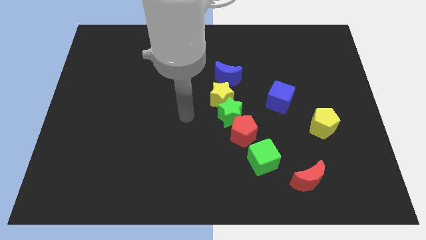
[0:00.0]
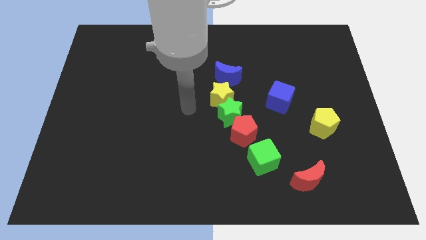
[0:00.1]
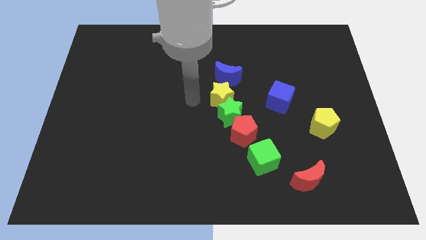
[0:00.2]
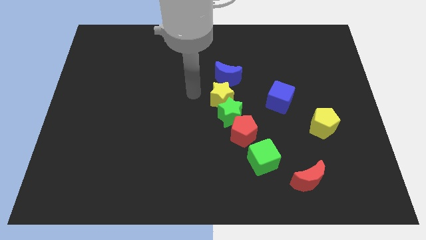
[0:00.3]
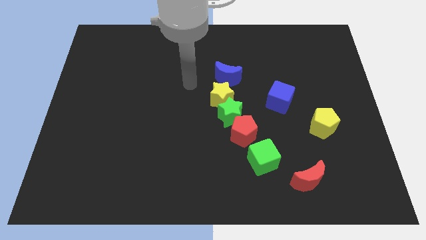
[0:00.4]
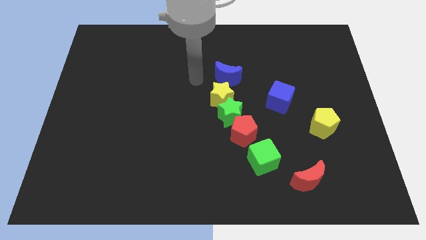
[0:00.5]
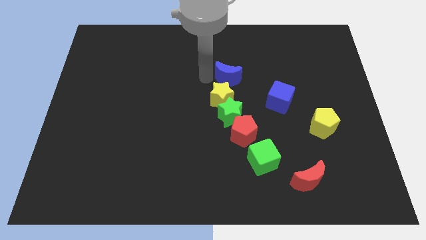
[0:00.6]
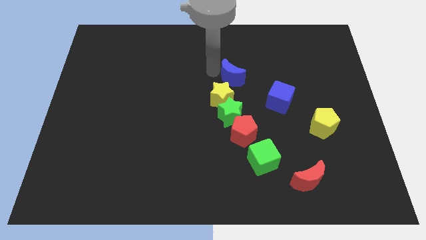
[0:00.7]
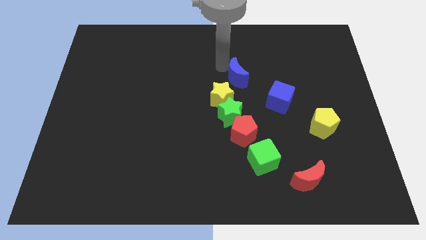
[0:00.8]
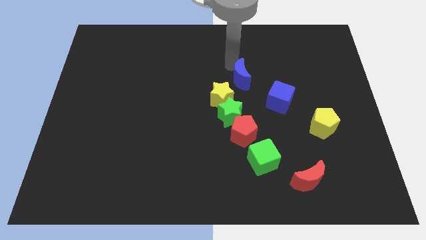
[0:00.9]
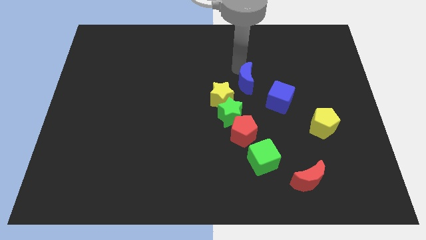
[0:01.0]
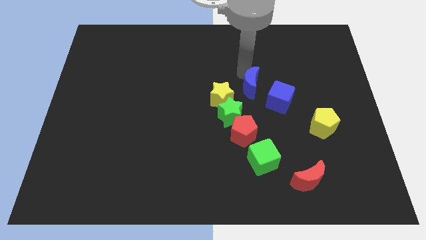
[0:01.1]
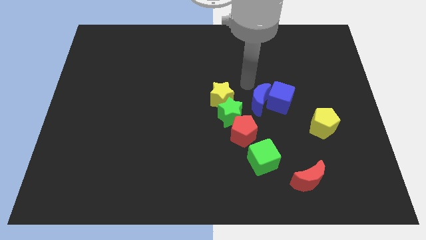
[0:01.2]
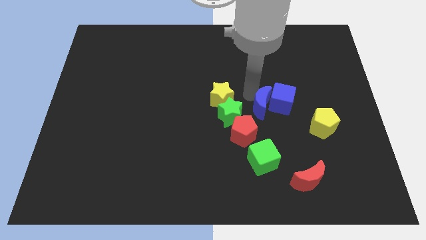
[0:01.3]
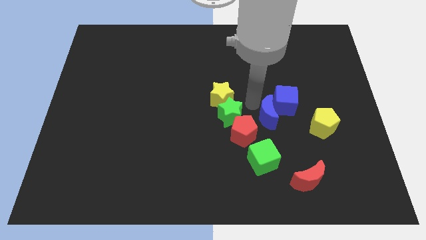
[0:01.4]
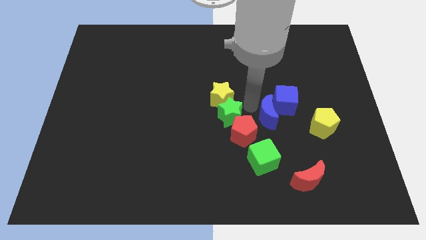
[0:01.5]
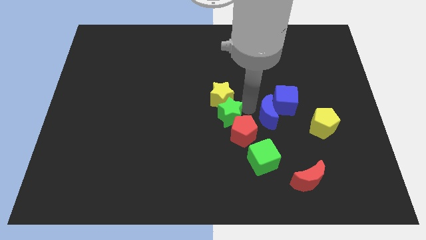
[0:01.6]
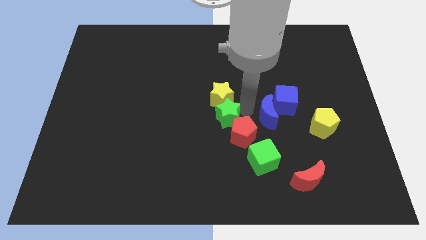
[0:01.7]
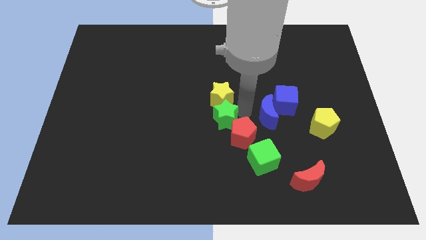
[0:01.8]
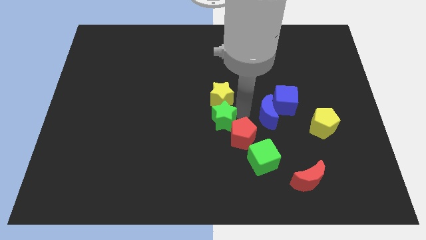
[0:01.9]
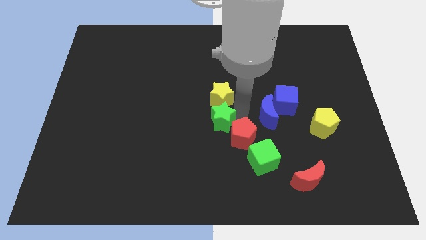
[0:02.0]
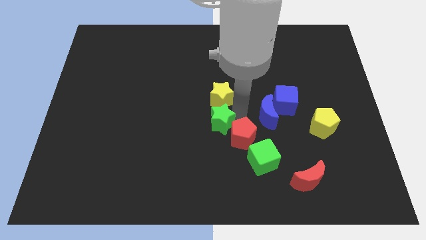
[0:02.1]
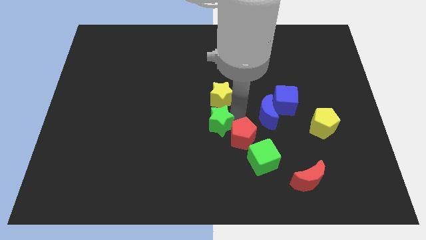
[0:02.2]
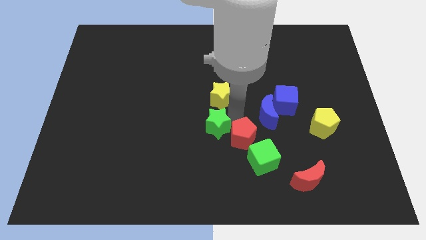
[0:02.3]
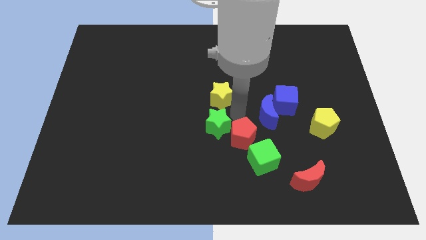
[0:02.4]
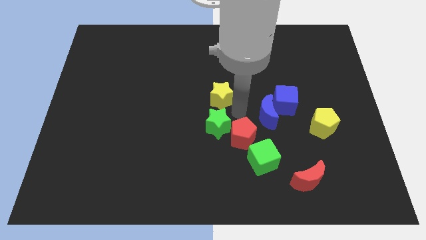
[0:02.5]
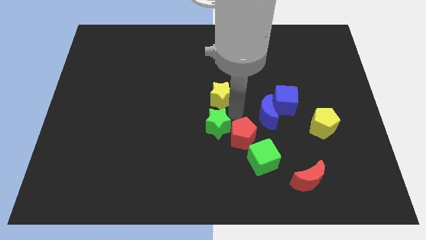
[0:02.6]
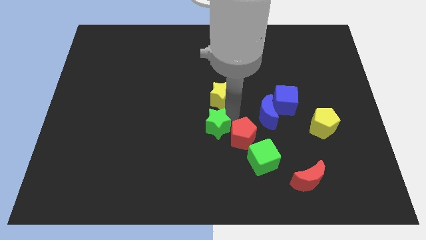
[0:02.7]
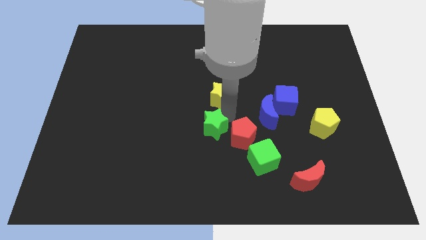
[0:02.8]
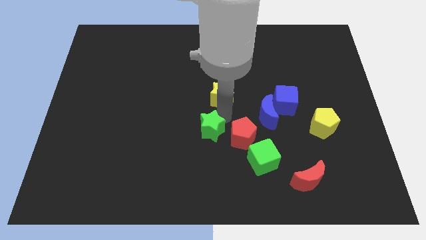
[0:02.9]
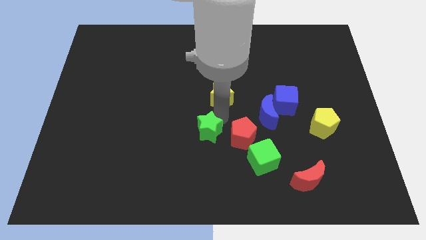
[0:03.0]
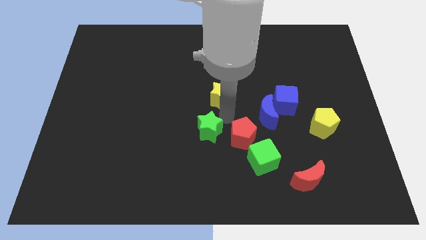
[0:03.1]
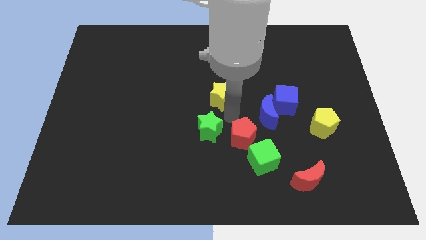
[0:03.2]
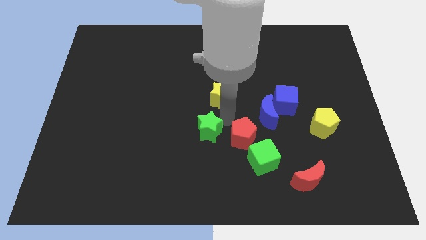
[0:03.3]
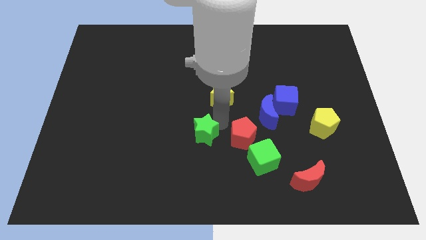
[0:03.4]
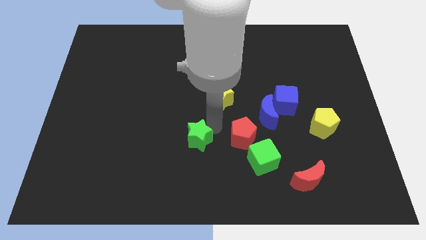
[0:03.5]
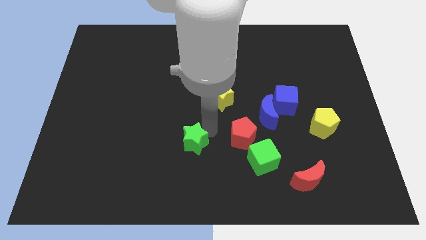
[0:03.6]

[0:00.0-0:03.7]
pull the green star apart from the yellow star and red pentagon

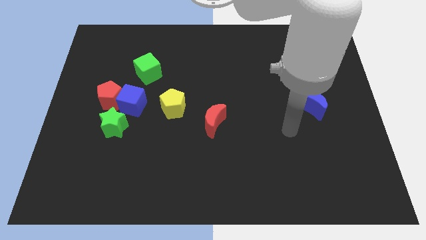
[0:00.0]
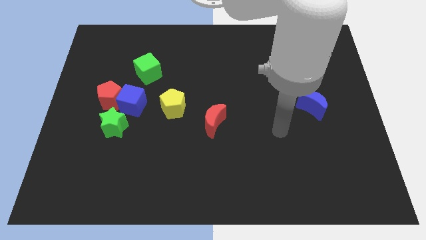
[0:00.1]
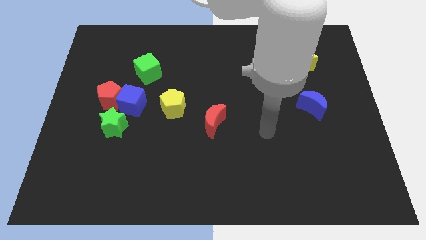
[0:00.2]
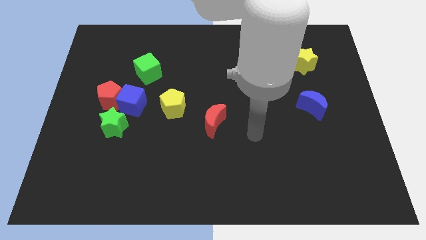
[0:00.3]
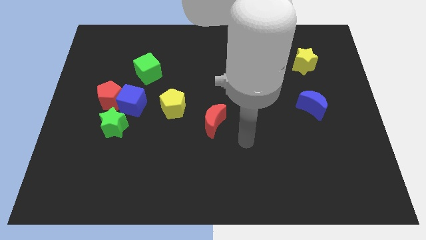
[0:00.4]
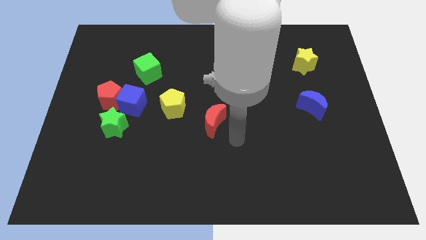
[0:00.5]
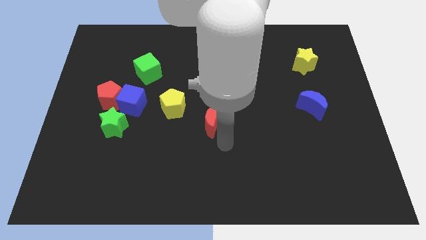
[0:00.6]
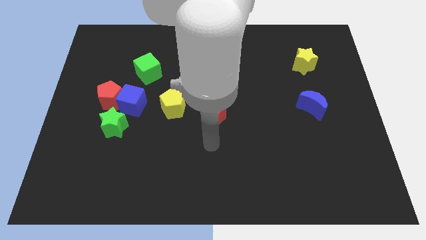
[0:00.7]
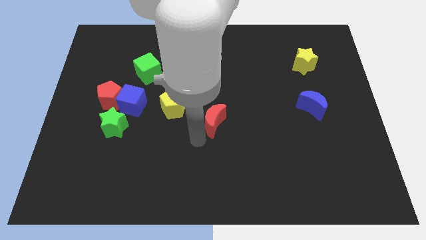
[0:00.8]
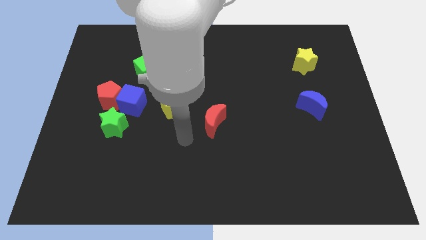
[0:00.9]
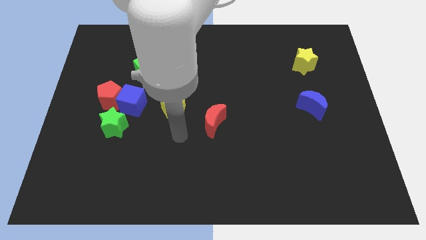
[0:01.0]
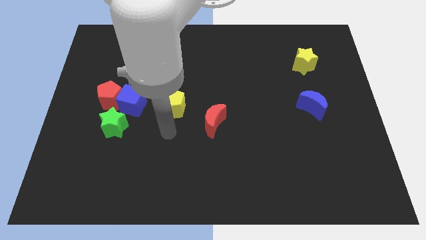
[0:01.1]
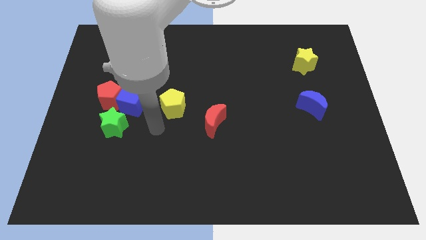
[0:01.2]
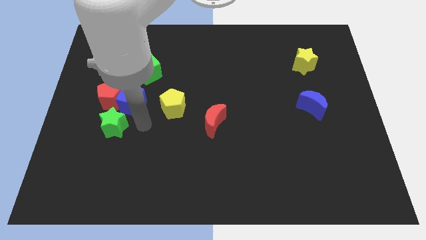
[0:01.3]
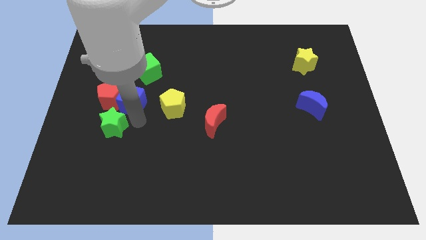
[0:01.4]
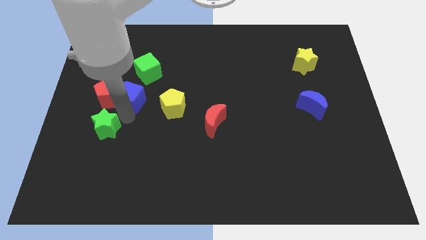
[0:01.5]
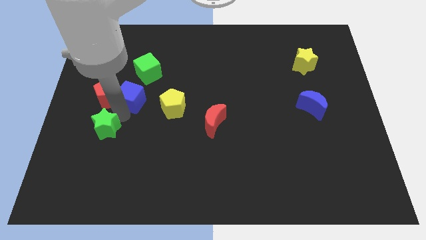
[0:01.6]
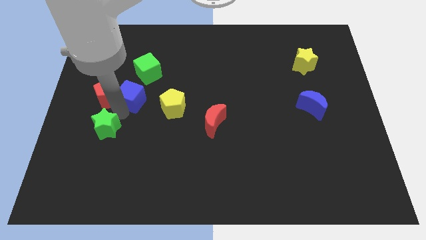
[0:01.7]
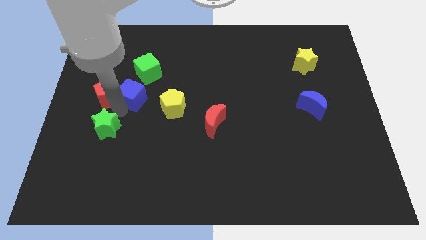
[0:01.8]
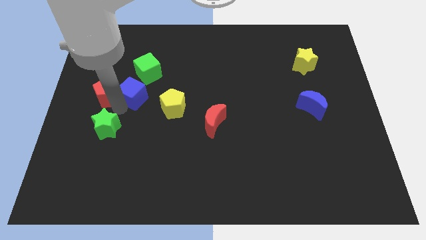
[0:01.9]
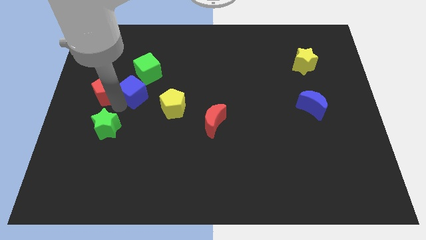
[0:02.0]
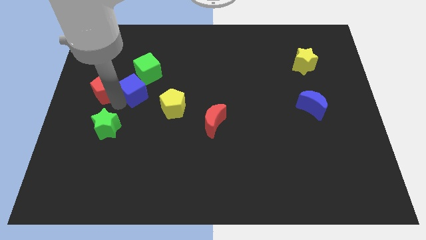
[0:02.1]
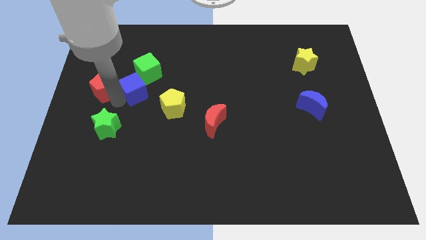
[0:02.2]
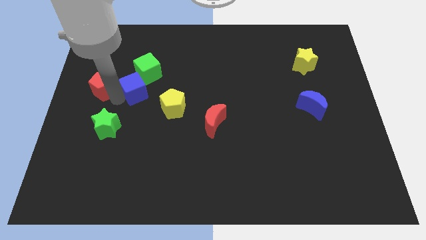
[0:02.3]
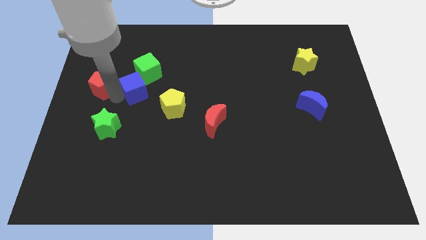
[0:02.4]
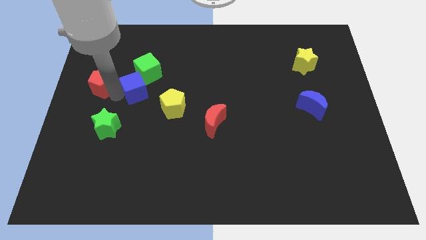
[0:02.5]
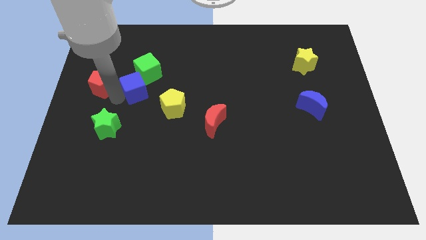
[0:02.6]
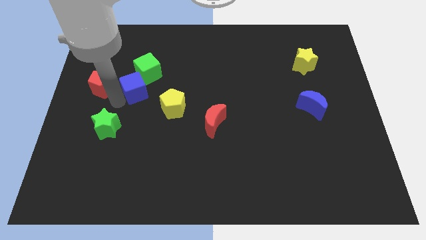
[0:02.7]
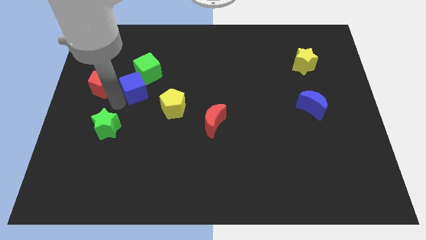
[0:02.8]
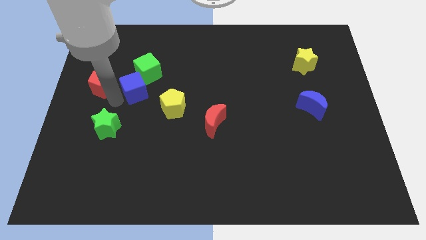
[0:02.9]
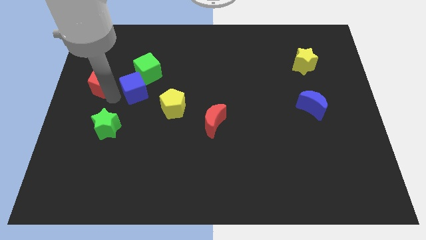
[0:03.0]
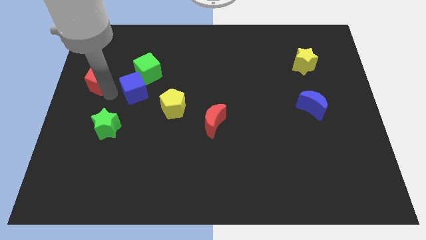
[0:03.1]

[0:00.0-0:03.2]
separate the red pentagon from the blue cube and green star

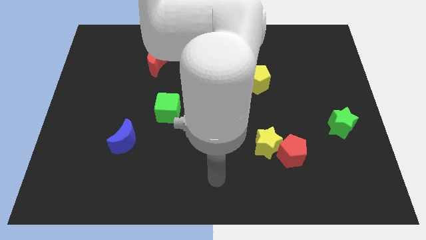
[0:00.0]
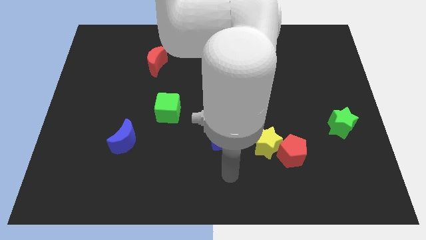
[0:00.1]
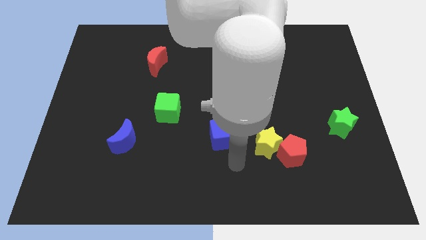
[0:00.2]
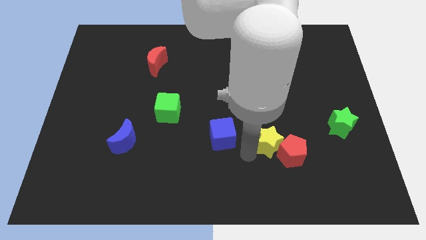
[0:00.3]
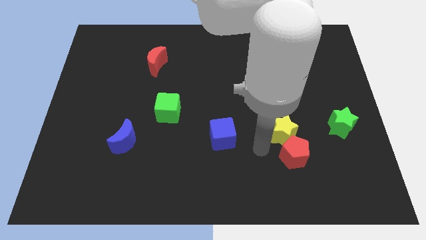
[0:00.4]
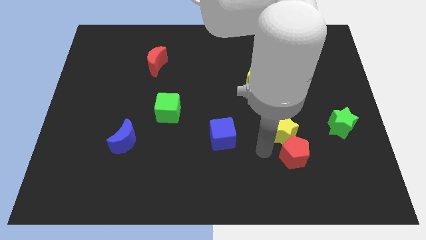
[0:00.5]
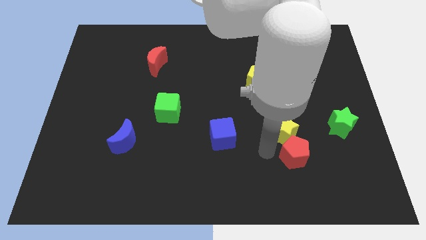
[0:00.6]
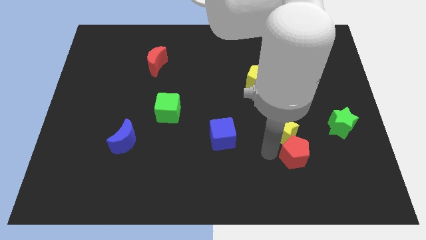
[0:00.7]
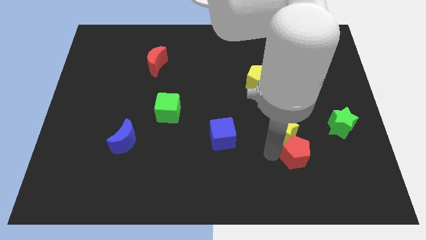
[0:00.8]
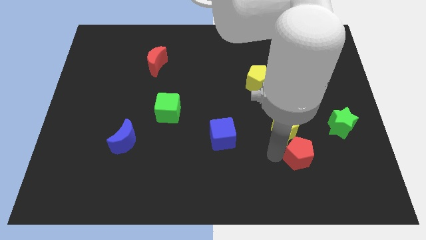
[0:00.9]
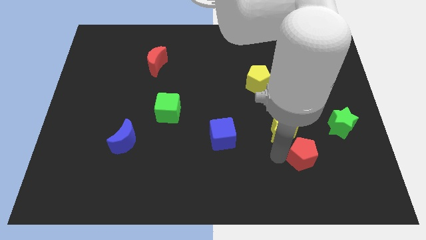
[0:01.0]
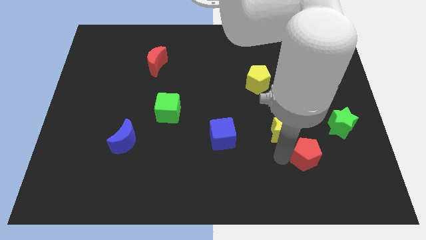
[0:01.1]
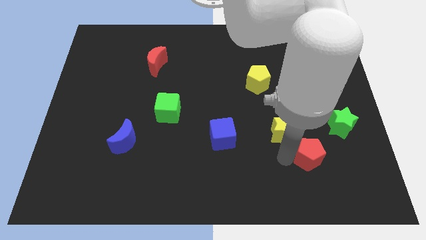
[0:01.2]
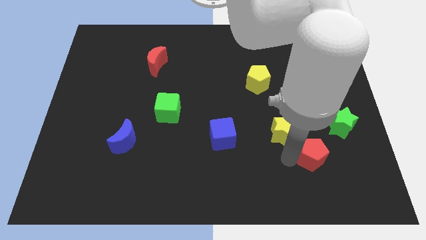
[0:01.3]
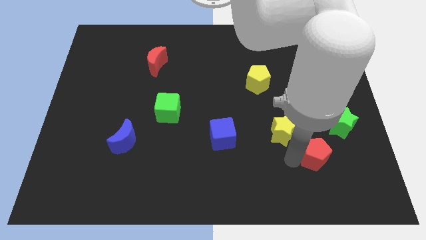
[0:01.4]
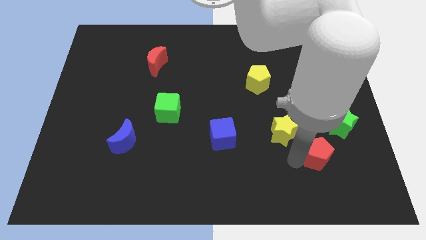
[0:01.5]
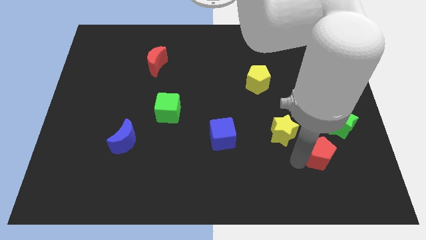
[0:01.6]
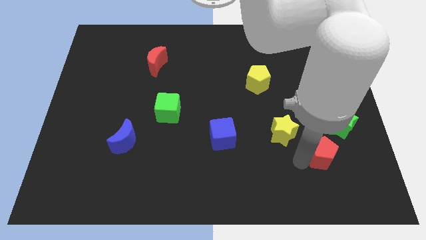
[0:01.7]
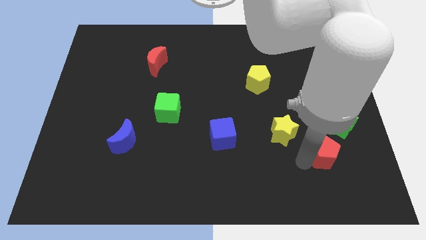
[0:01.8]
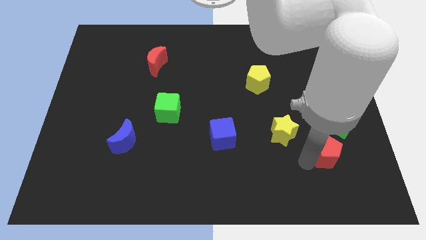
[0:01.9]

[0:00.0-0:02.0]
separate the red pentagon from the yellow star

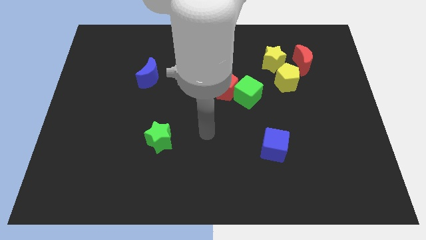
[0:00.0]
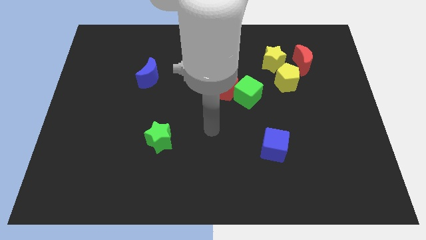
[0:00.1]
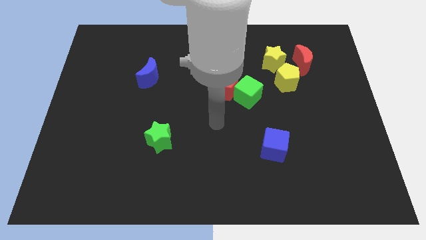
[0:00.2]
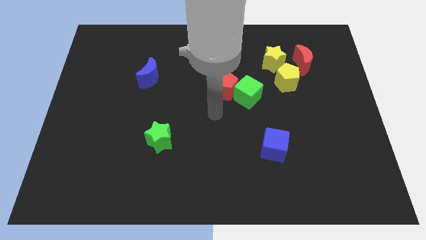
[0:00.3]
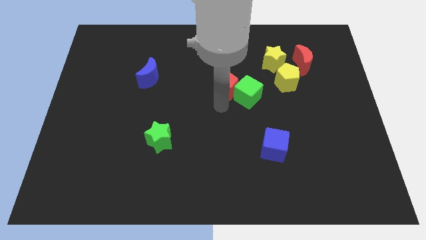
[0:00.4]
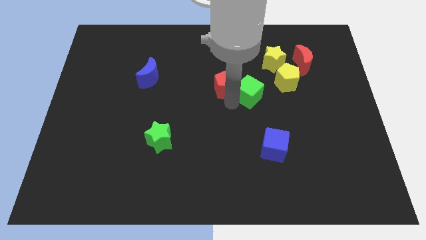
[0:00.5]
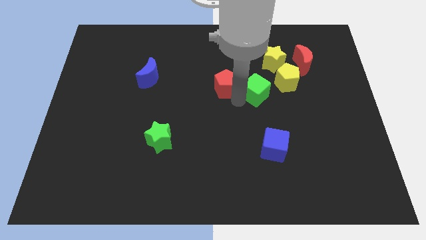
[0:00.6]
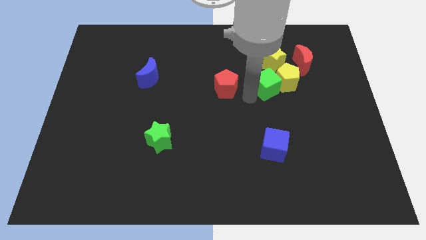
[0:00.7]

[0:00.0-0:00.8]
pull the red pentagon apart from the green cube
